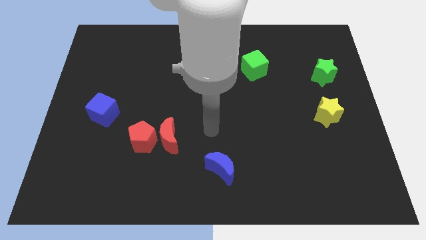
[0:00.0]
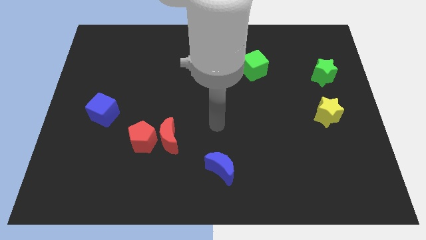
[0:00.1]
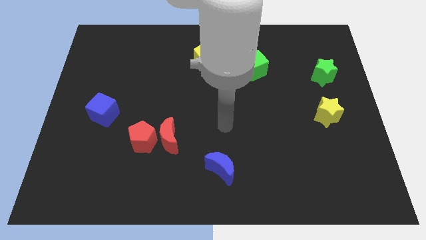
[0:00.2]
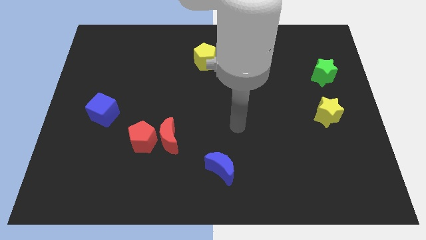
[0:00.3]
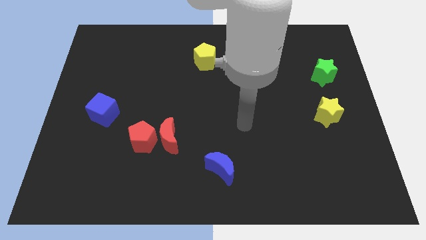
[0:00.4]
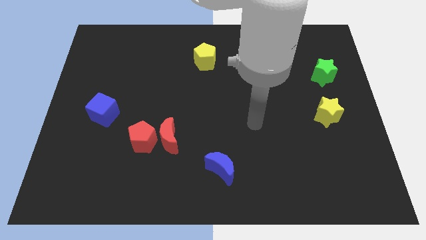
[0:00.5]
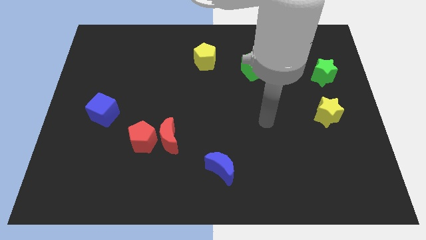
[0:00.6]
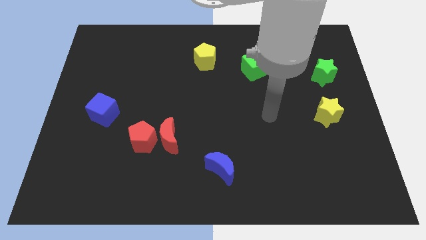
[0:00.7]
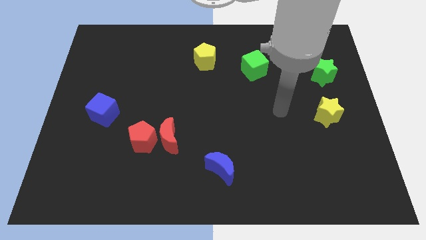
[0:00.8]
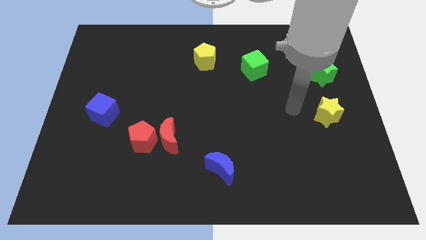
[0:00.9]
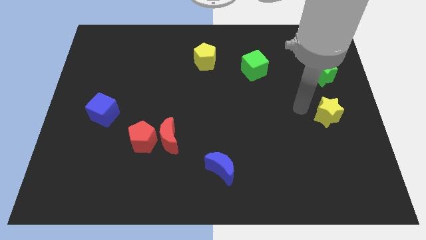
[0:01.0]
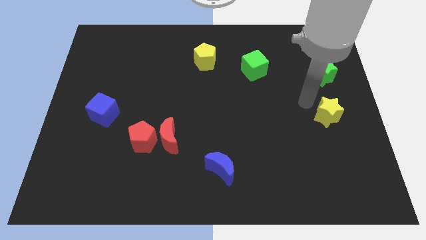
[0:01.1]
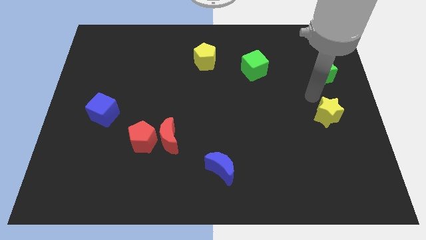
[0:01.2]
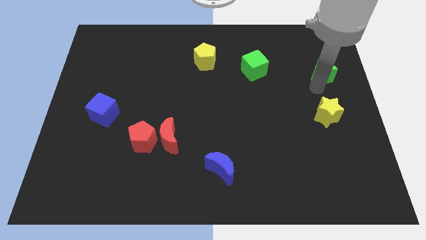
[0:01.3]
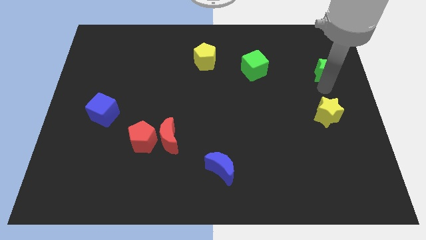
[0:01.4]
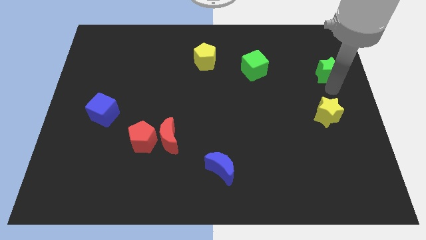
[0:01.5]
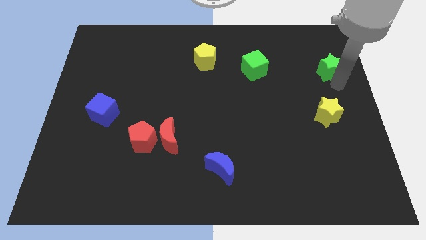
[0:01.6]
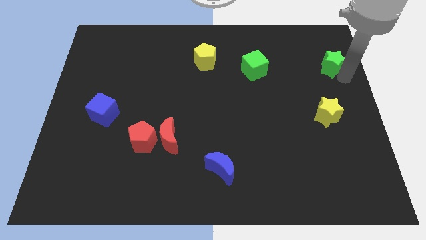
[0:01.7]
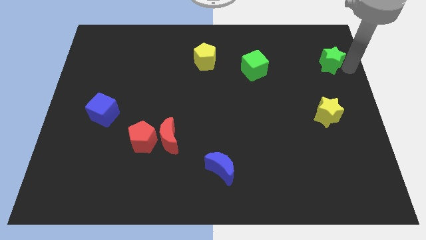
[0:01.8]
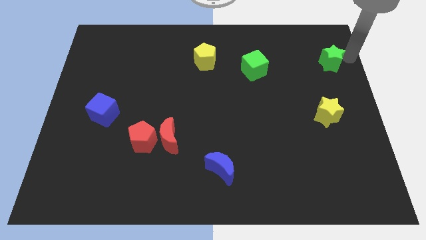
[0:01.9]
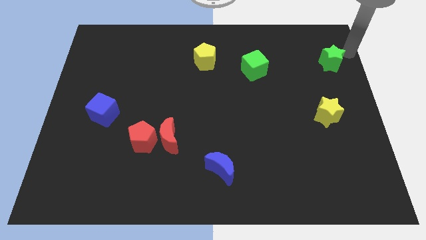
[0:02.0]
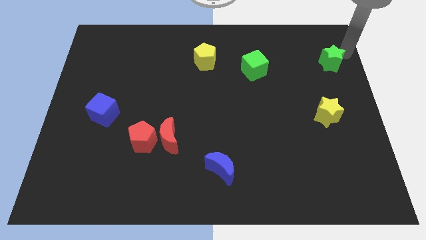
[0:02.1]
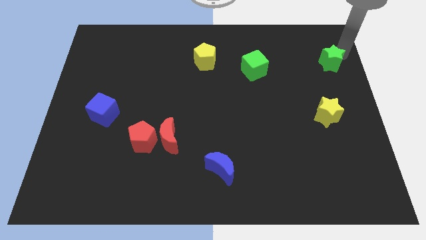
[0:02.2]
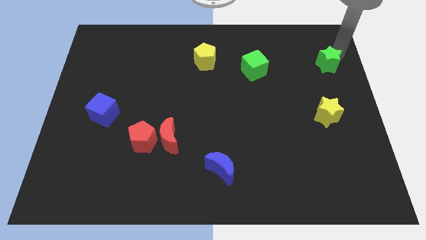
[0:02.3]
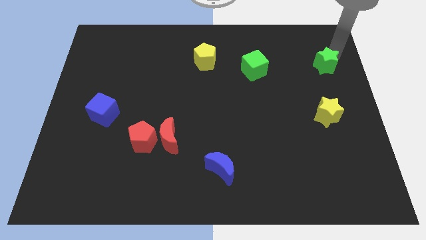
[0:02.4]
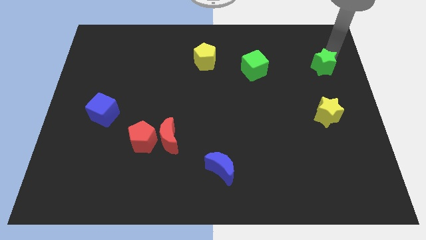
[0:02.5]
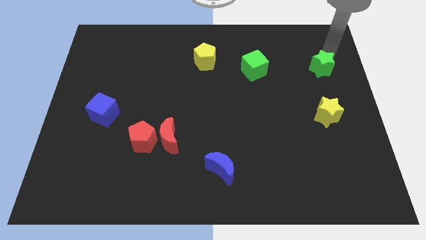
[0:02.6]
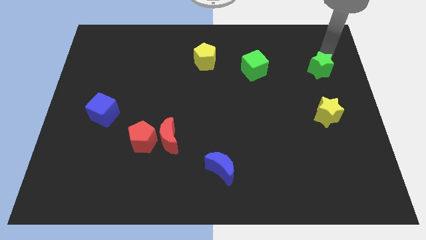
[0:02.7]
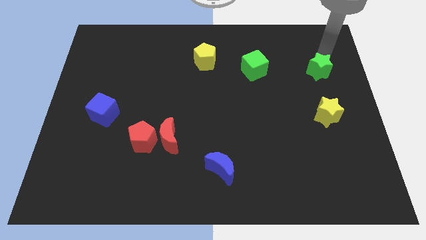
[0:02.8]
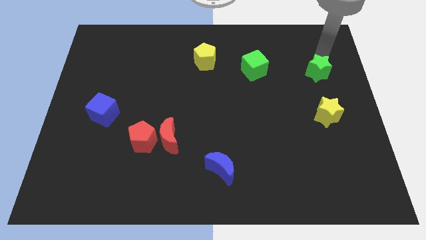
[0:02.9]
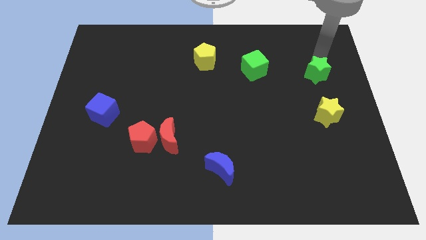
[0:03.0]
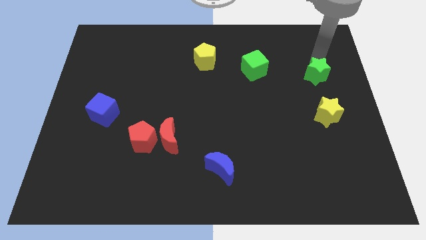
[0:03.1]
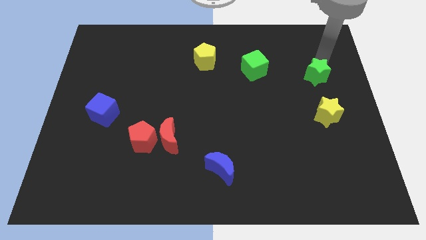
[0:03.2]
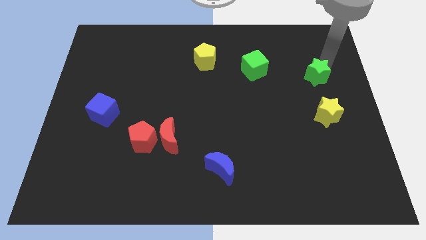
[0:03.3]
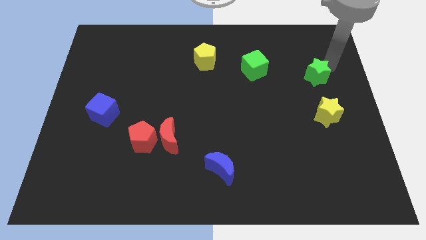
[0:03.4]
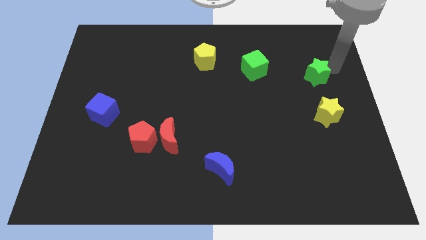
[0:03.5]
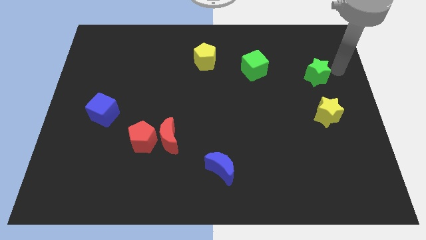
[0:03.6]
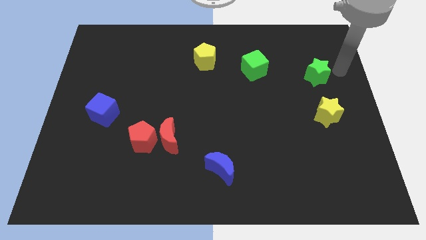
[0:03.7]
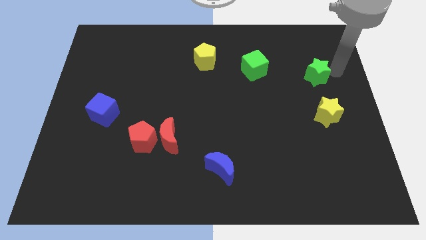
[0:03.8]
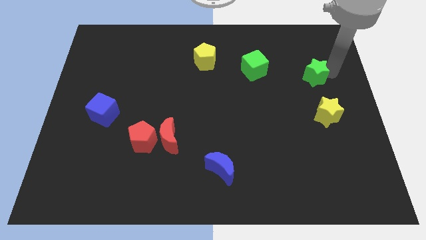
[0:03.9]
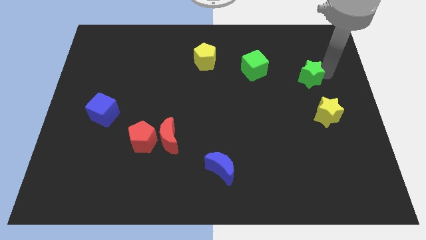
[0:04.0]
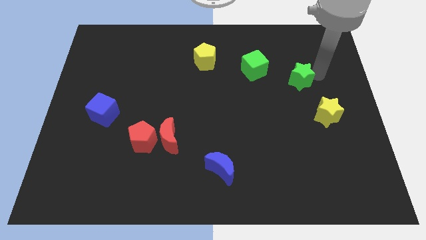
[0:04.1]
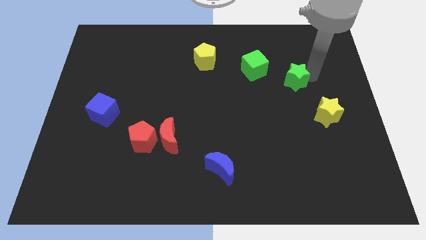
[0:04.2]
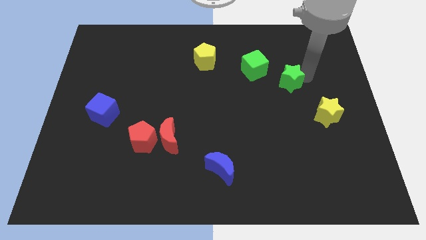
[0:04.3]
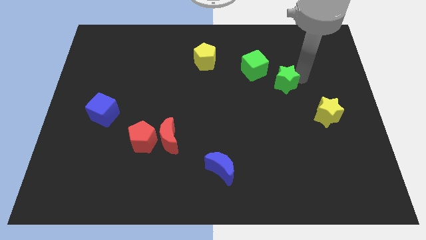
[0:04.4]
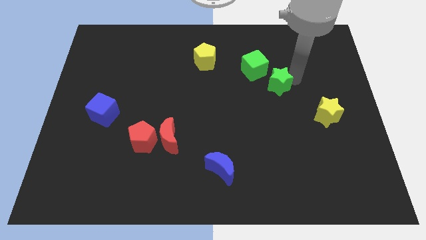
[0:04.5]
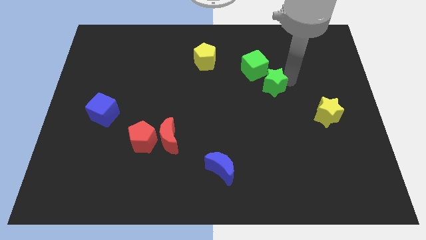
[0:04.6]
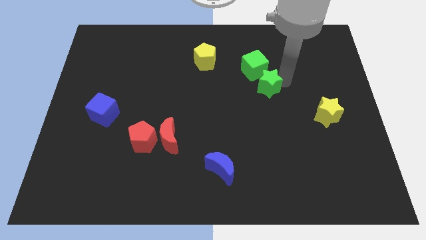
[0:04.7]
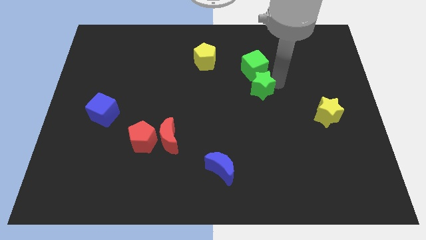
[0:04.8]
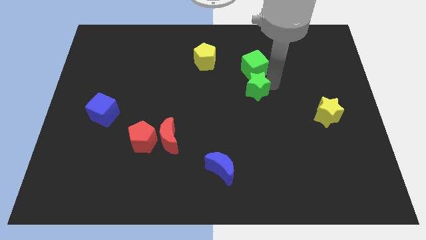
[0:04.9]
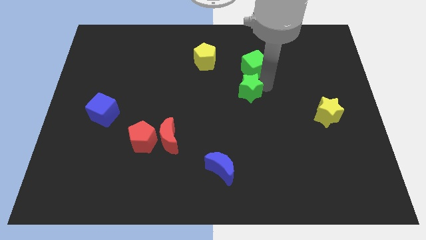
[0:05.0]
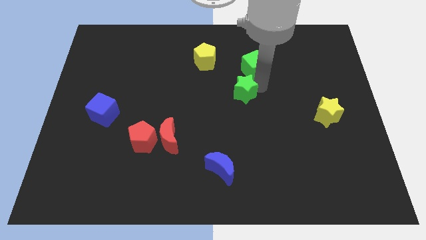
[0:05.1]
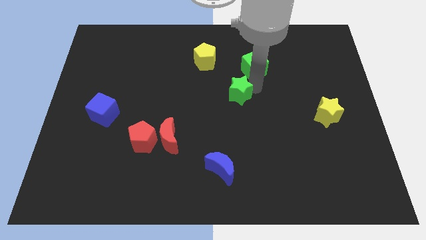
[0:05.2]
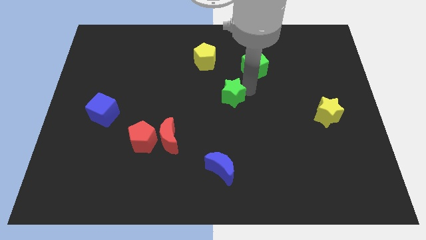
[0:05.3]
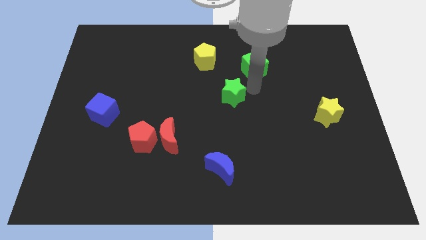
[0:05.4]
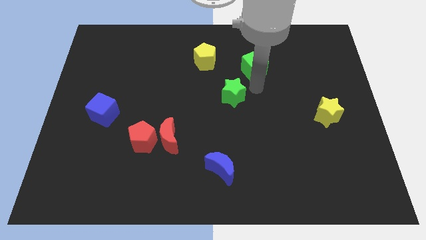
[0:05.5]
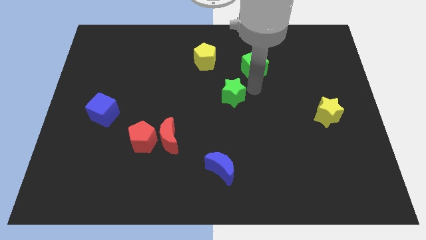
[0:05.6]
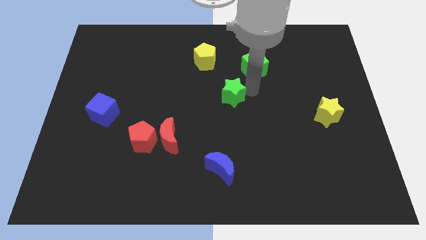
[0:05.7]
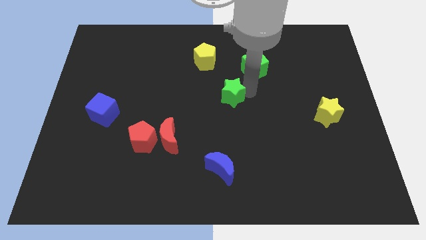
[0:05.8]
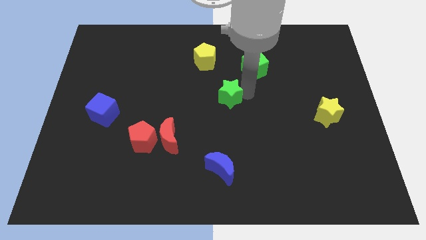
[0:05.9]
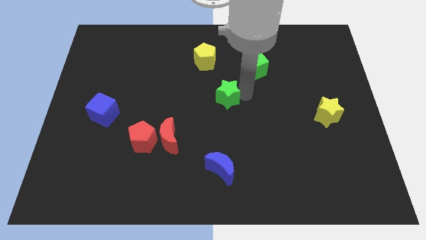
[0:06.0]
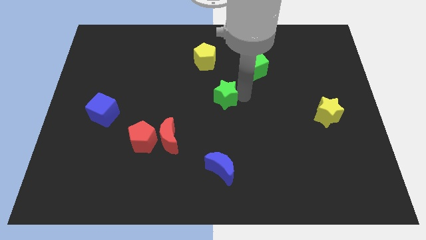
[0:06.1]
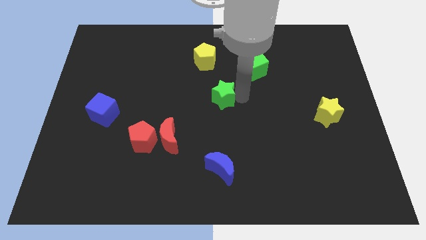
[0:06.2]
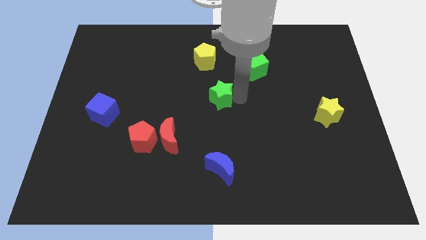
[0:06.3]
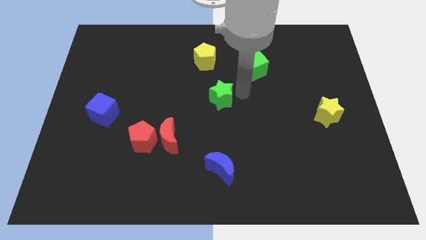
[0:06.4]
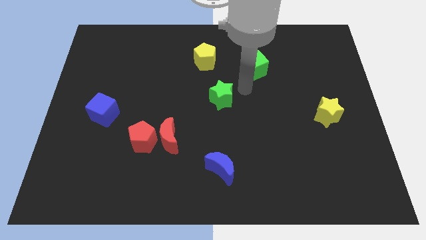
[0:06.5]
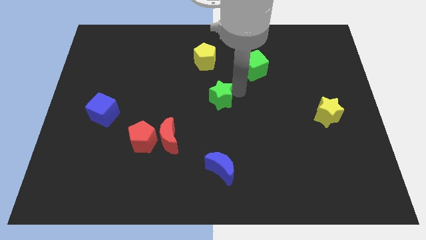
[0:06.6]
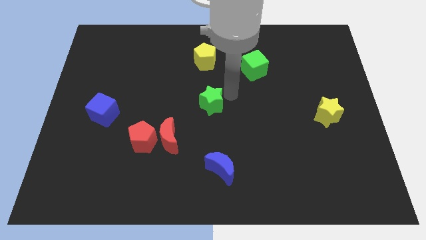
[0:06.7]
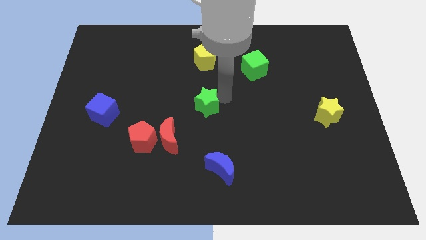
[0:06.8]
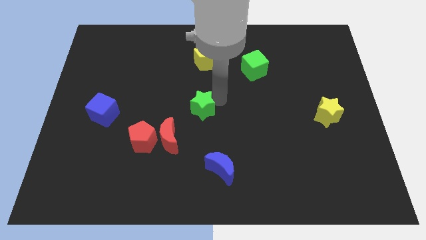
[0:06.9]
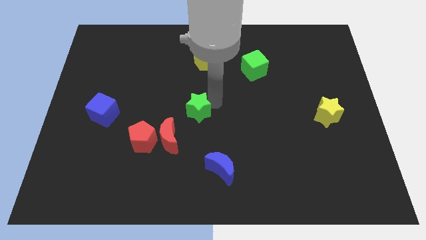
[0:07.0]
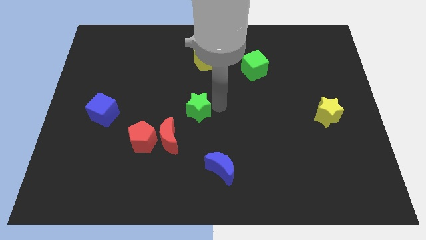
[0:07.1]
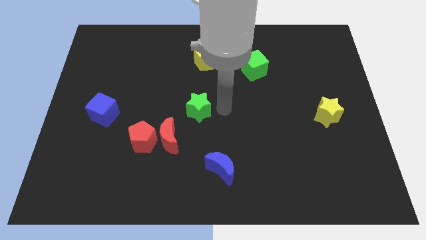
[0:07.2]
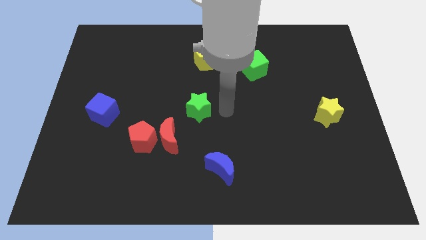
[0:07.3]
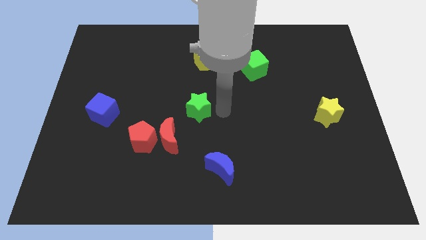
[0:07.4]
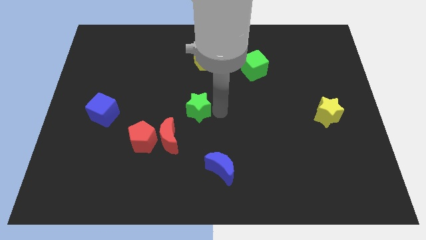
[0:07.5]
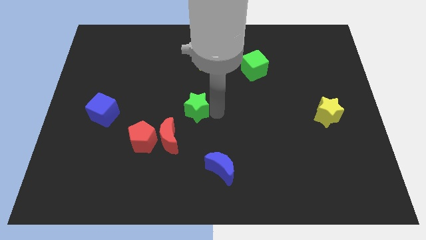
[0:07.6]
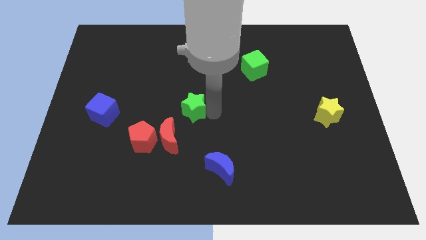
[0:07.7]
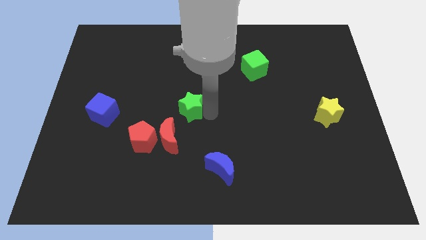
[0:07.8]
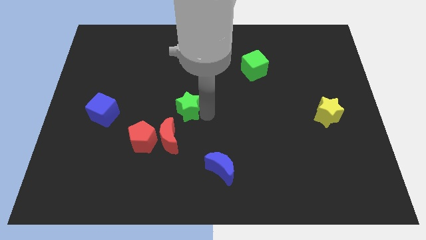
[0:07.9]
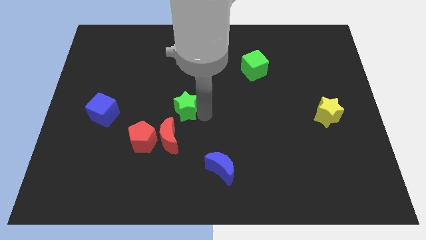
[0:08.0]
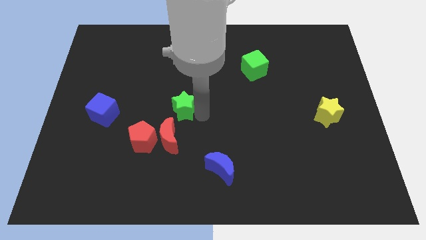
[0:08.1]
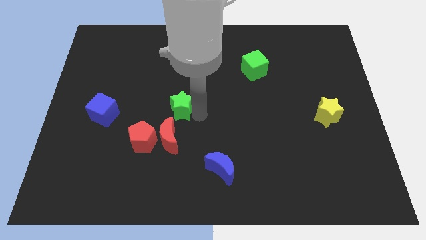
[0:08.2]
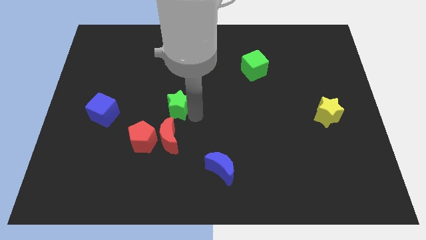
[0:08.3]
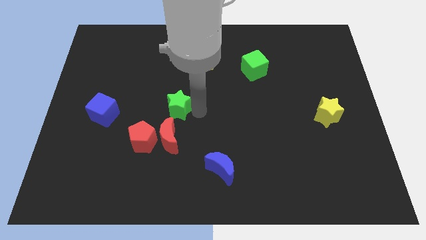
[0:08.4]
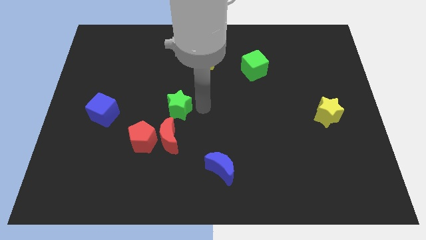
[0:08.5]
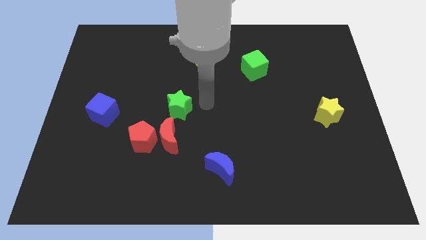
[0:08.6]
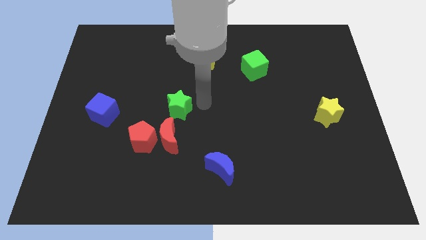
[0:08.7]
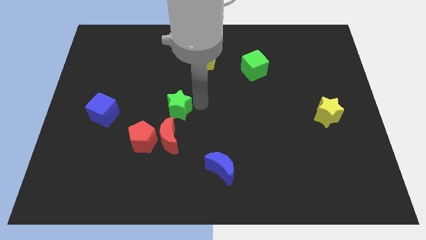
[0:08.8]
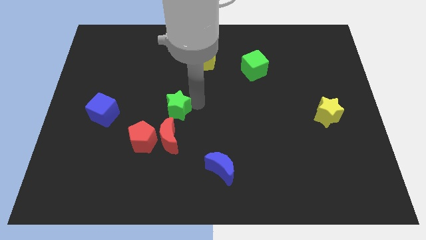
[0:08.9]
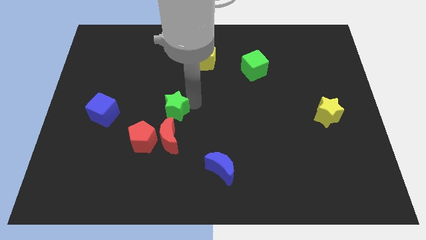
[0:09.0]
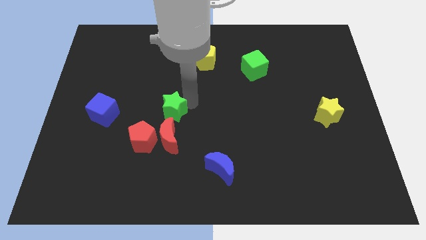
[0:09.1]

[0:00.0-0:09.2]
move the green star right of the blue cube
